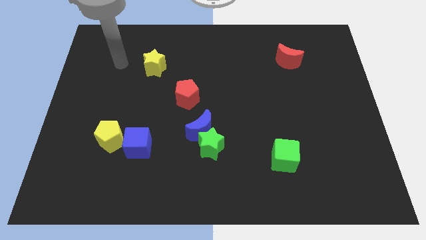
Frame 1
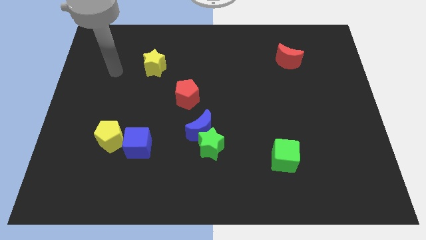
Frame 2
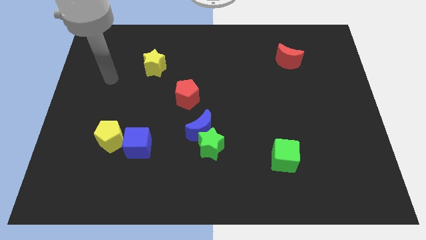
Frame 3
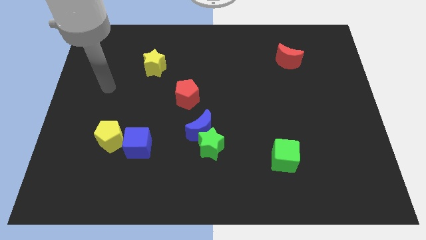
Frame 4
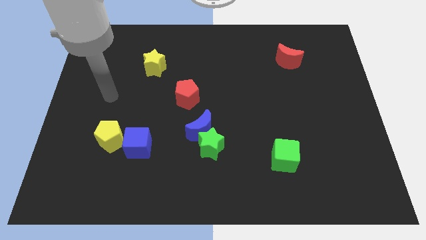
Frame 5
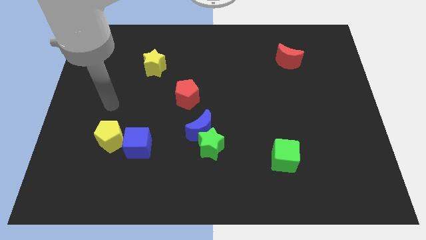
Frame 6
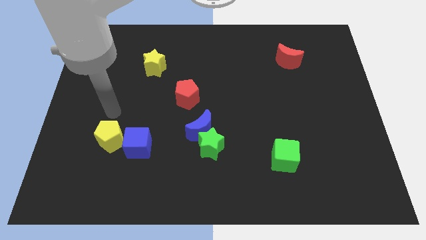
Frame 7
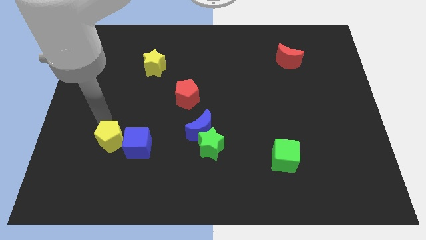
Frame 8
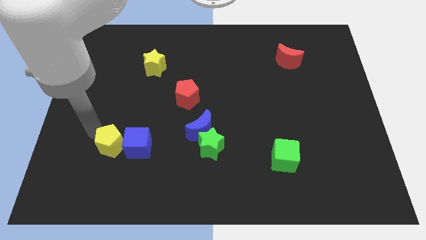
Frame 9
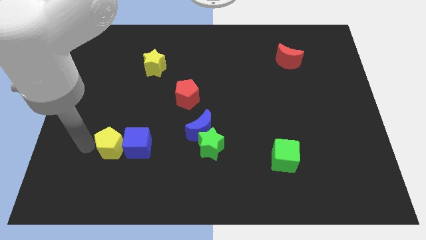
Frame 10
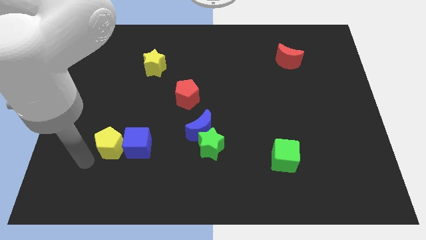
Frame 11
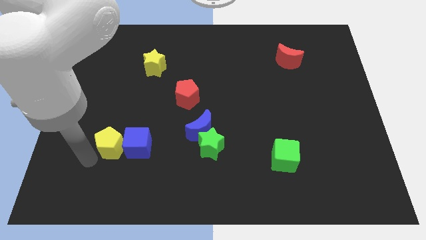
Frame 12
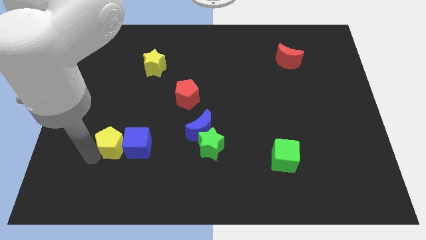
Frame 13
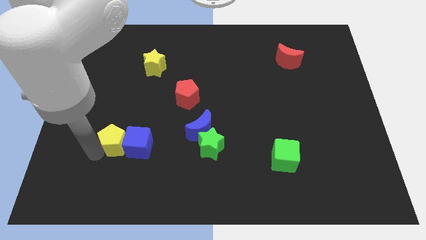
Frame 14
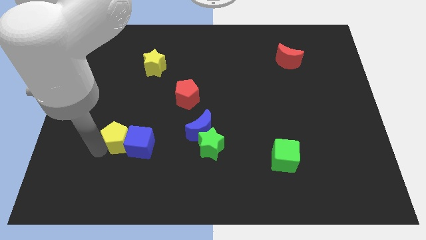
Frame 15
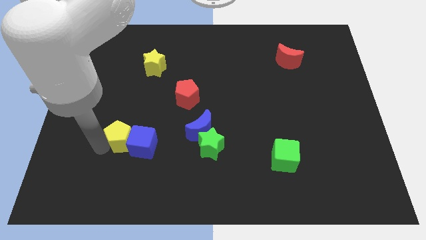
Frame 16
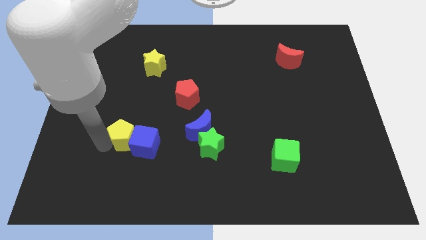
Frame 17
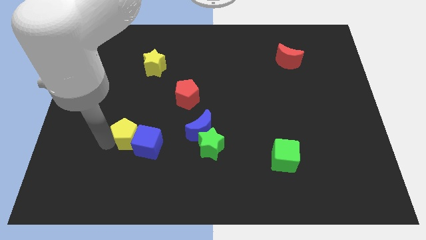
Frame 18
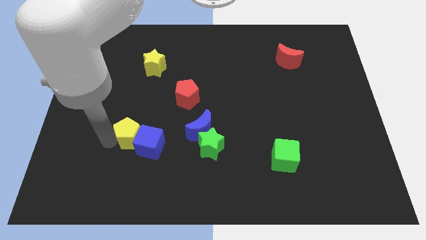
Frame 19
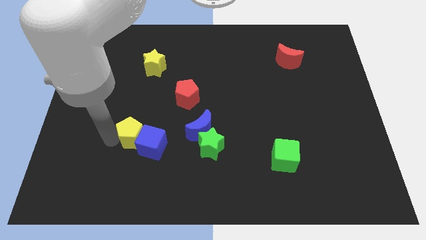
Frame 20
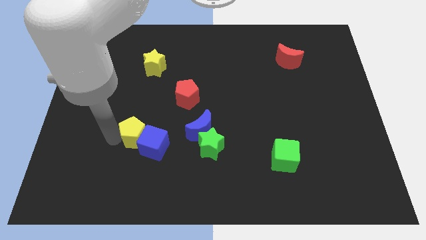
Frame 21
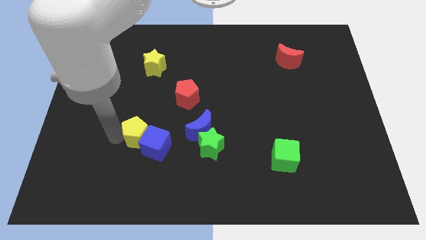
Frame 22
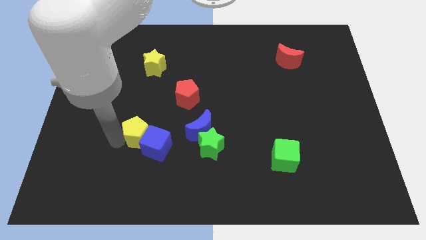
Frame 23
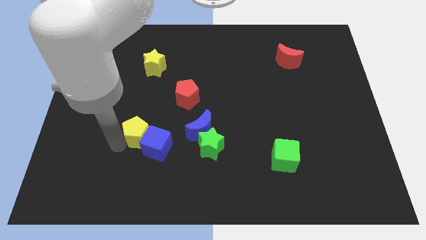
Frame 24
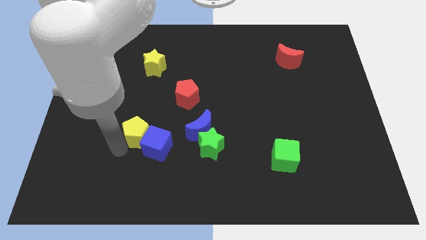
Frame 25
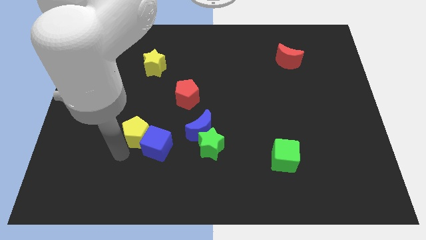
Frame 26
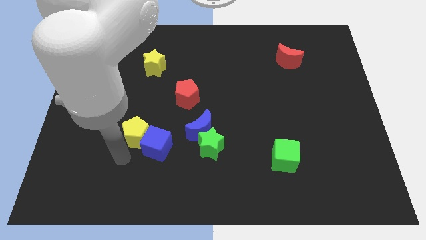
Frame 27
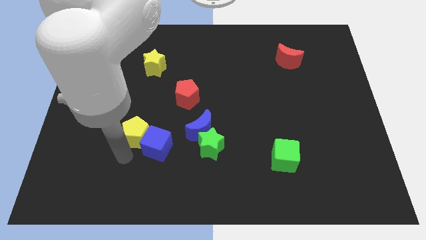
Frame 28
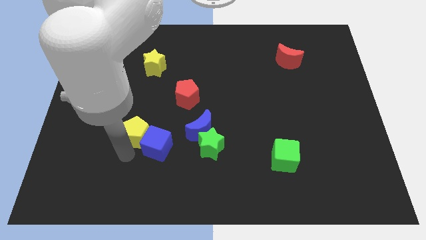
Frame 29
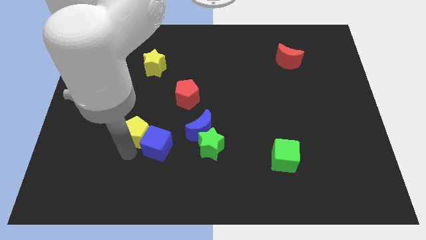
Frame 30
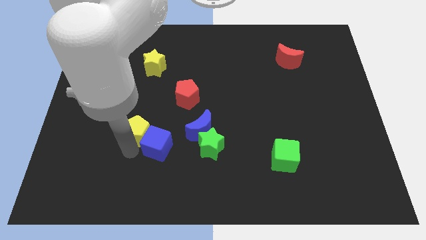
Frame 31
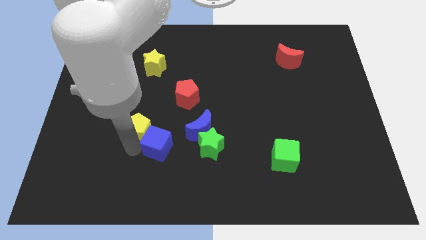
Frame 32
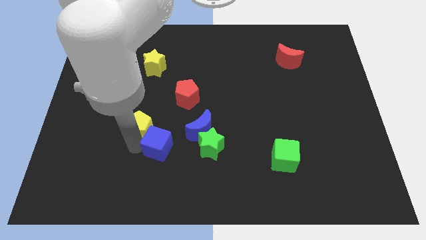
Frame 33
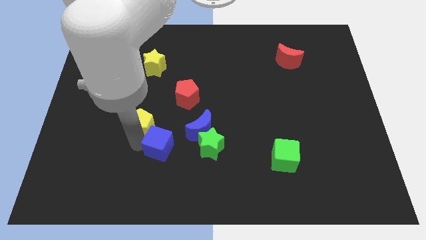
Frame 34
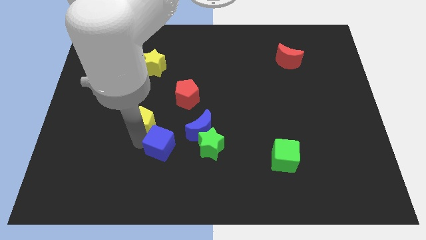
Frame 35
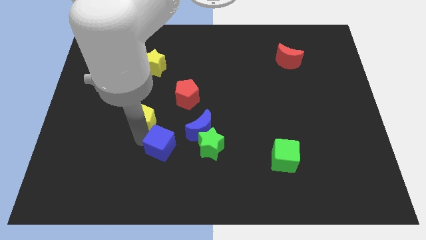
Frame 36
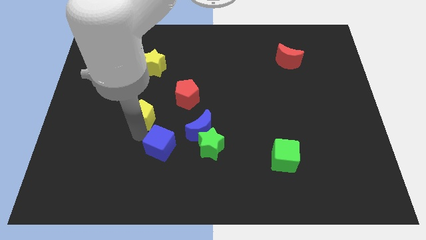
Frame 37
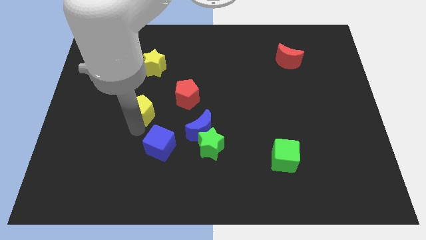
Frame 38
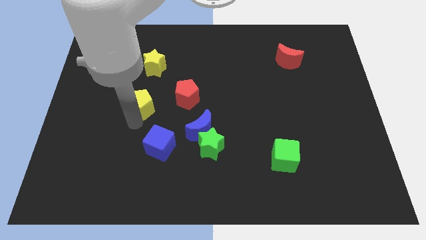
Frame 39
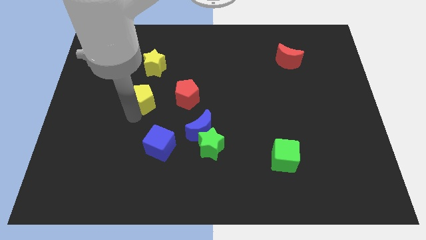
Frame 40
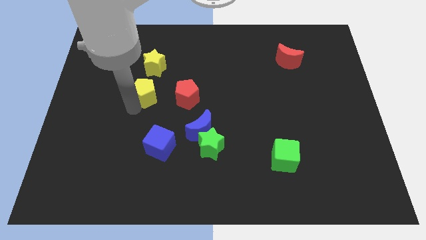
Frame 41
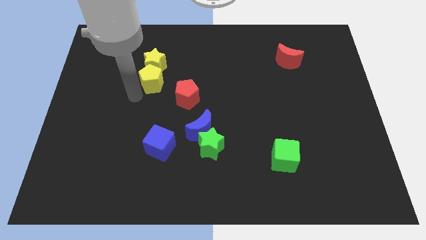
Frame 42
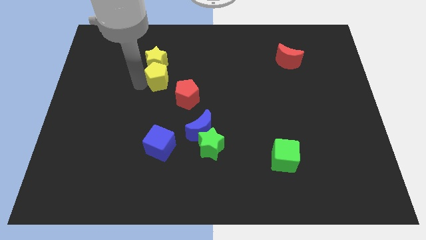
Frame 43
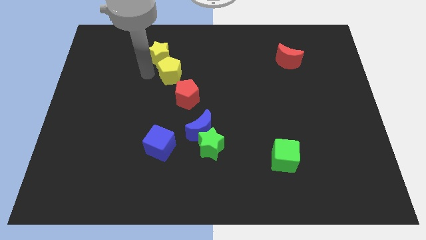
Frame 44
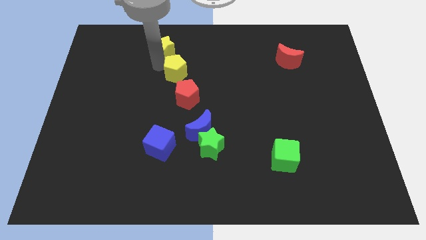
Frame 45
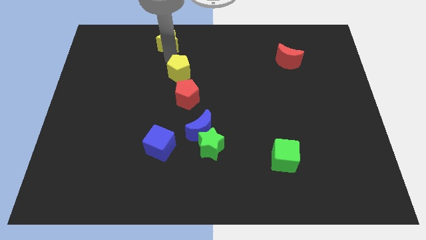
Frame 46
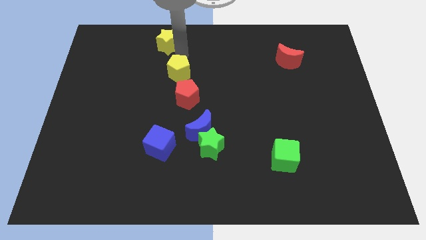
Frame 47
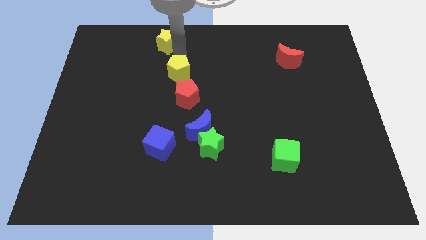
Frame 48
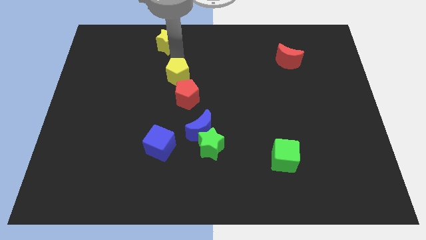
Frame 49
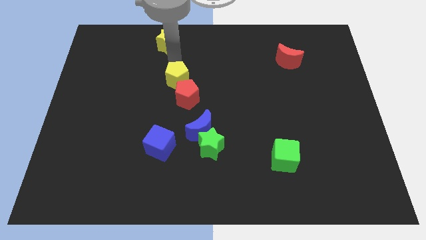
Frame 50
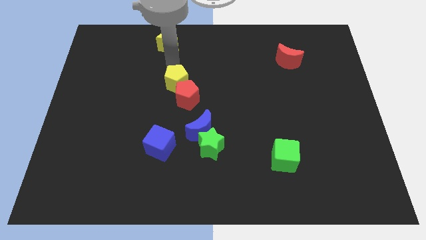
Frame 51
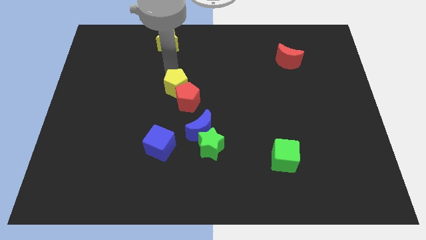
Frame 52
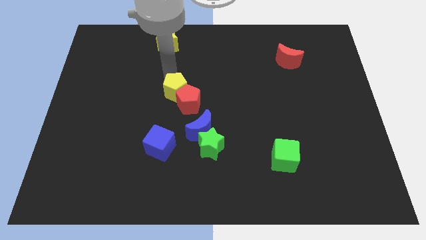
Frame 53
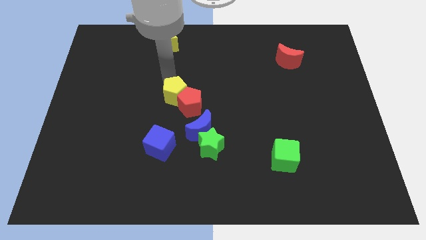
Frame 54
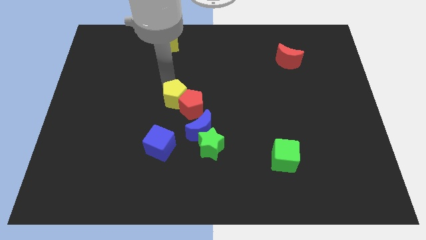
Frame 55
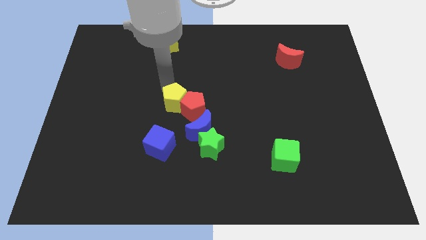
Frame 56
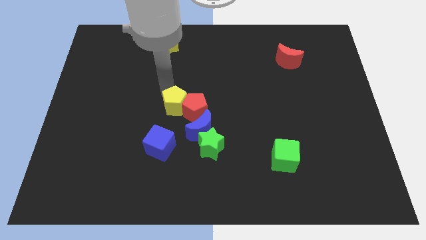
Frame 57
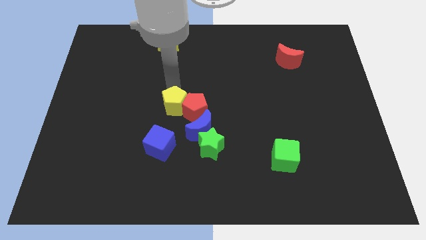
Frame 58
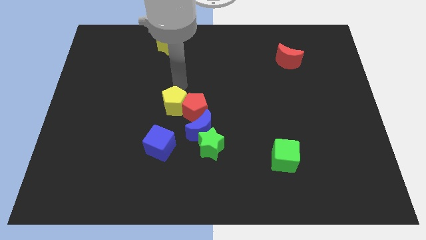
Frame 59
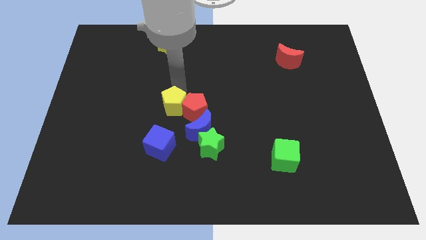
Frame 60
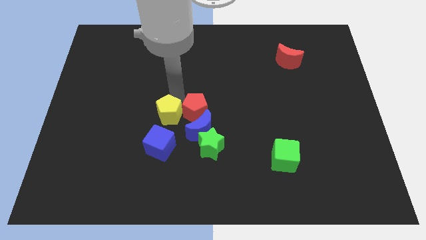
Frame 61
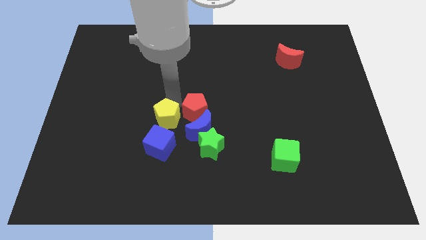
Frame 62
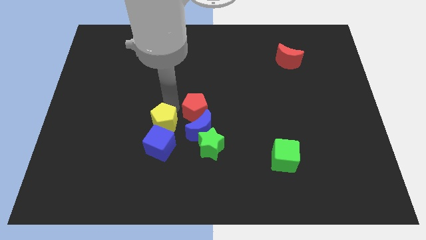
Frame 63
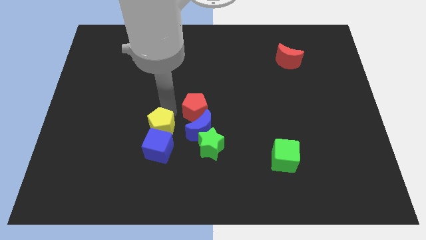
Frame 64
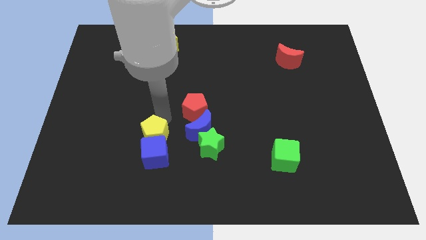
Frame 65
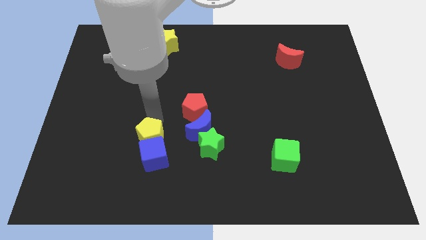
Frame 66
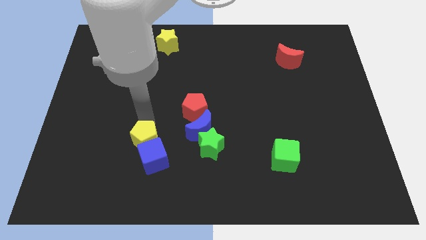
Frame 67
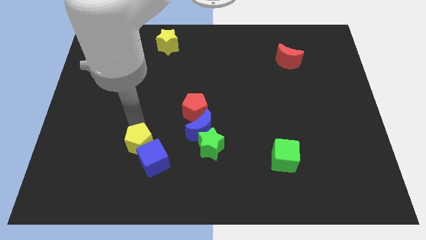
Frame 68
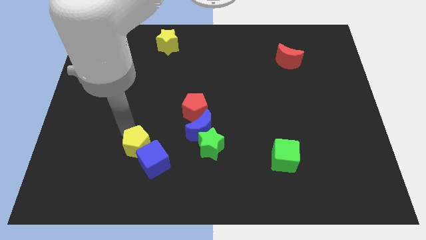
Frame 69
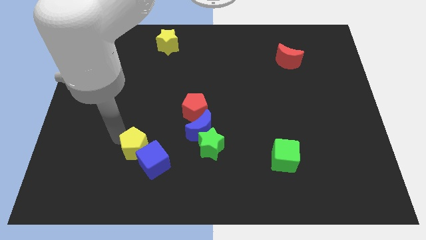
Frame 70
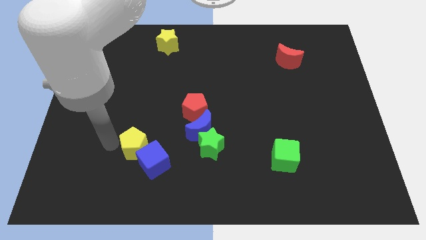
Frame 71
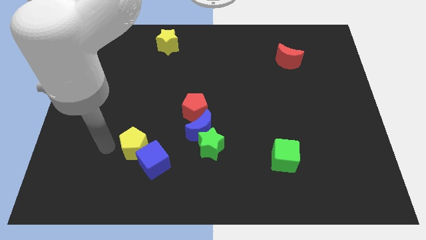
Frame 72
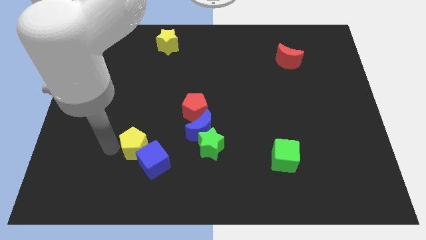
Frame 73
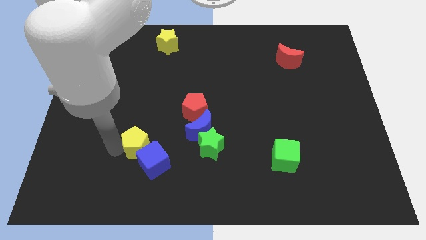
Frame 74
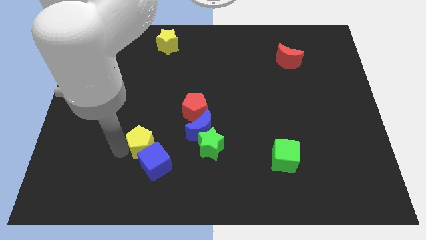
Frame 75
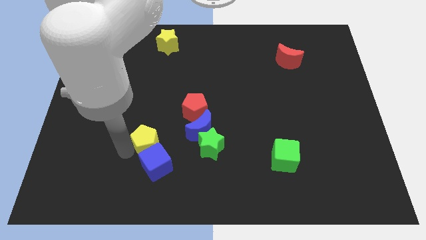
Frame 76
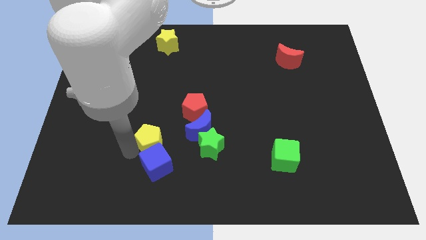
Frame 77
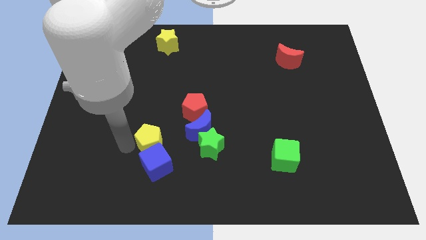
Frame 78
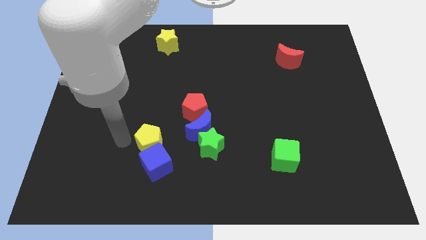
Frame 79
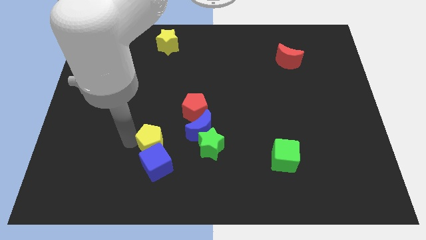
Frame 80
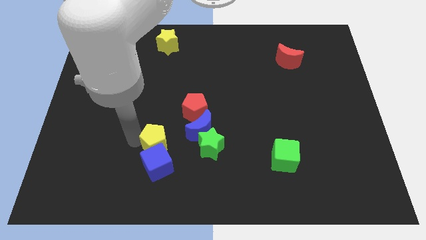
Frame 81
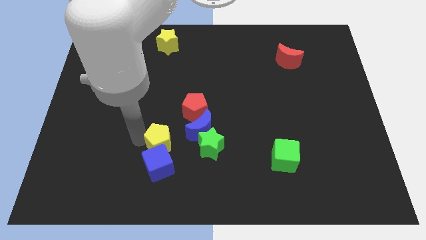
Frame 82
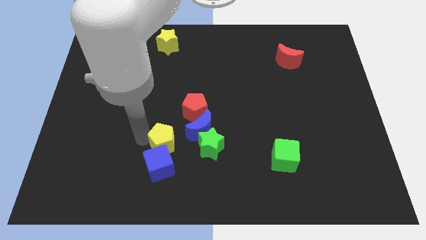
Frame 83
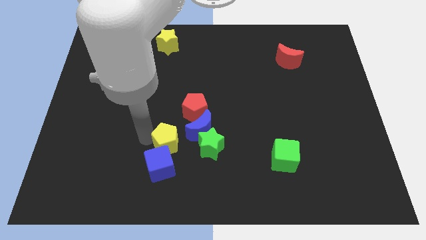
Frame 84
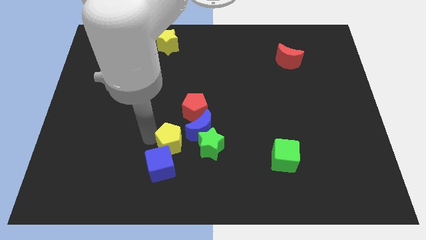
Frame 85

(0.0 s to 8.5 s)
put the yellow pentagon to the bottom of the red pentagon
